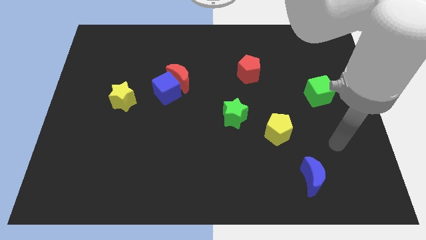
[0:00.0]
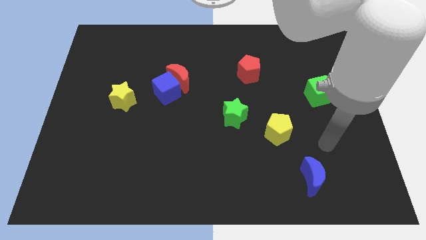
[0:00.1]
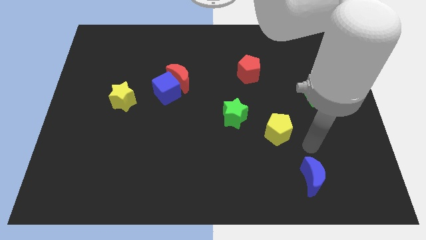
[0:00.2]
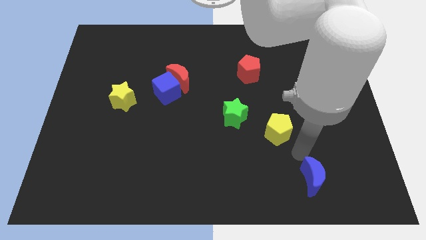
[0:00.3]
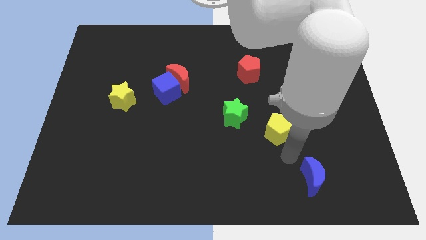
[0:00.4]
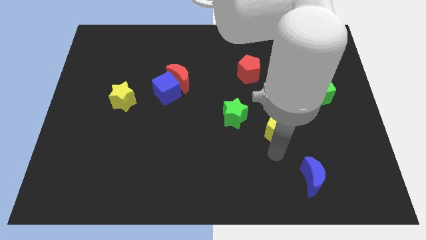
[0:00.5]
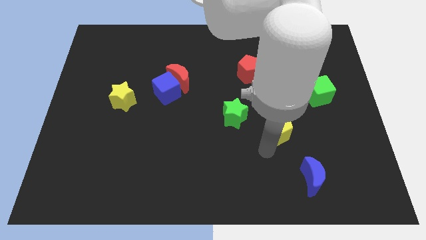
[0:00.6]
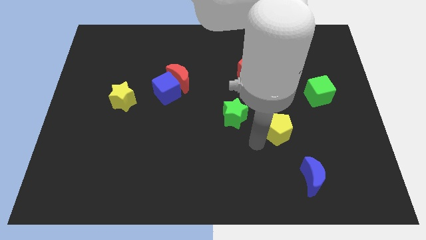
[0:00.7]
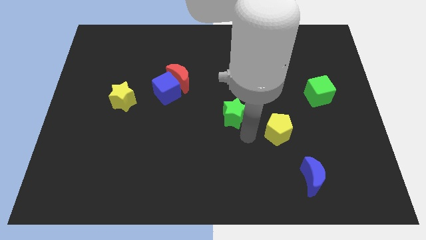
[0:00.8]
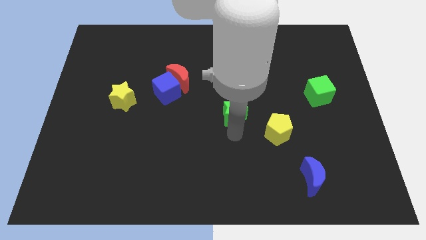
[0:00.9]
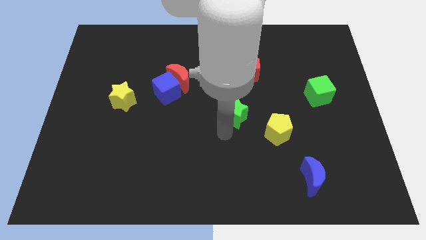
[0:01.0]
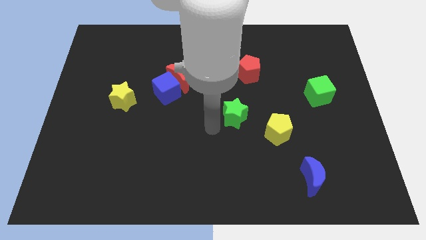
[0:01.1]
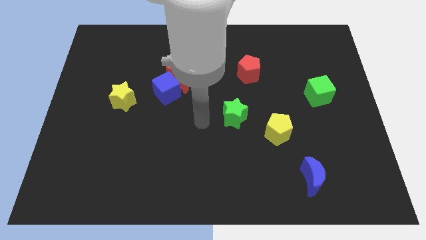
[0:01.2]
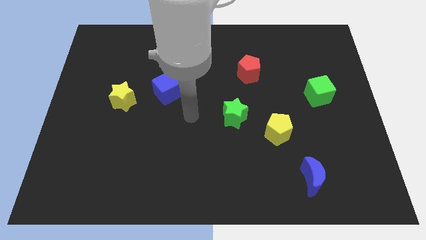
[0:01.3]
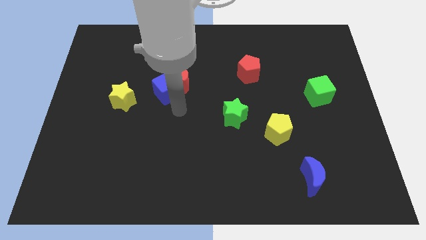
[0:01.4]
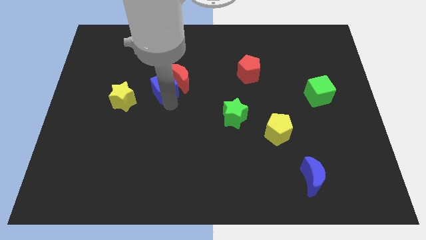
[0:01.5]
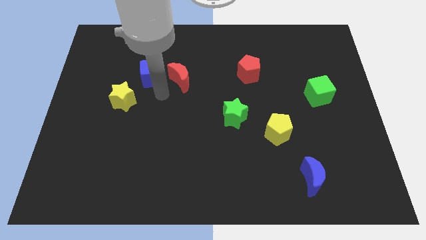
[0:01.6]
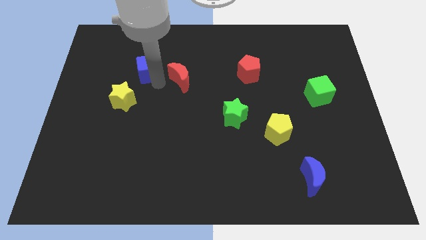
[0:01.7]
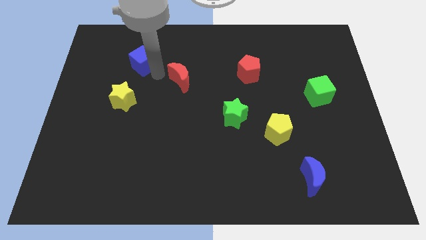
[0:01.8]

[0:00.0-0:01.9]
separate the red moon from the blue cube

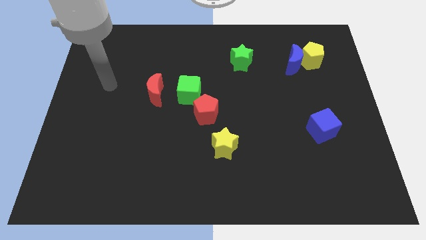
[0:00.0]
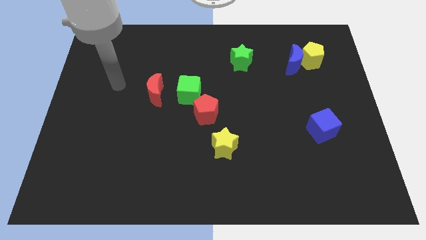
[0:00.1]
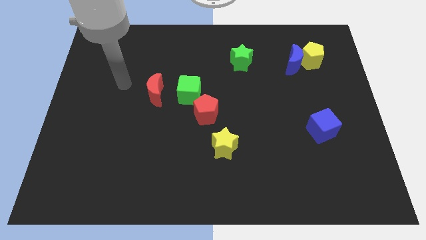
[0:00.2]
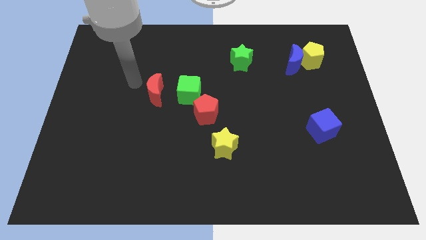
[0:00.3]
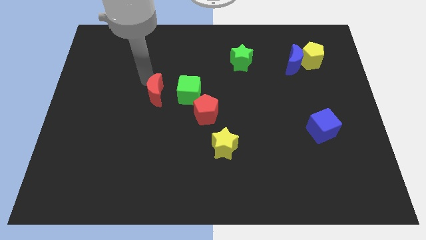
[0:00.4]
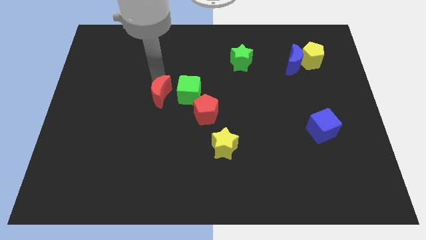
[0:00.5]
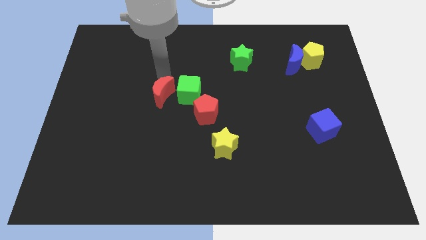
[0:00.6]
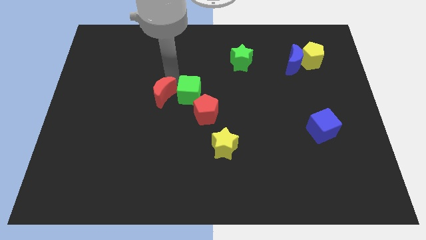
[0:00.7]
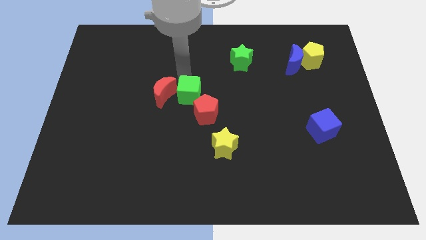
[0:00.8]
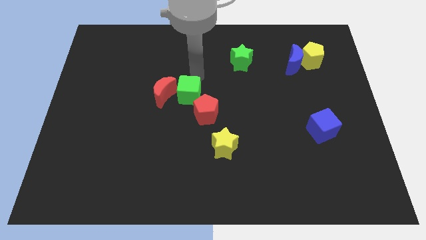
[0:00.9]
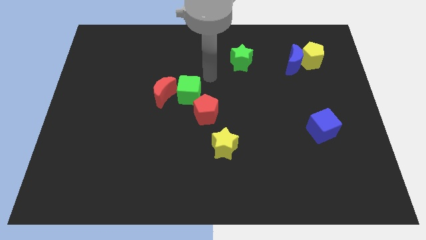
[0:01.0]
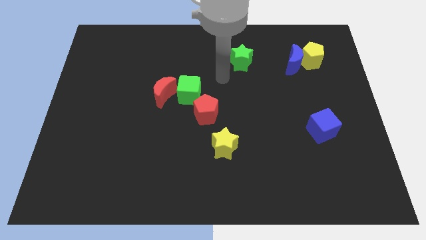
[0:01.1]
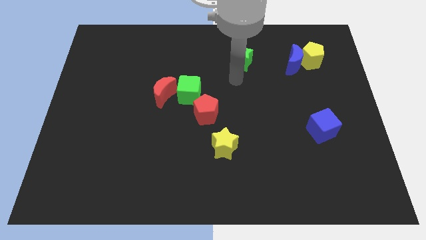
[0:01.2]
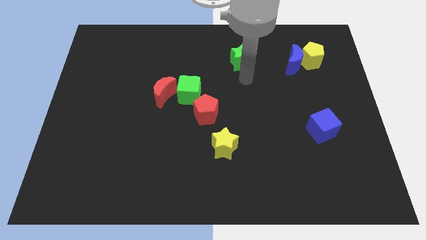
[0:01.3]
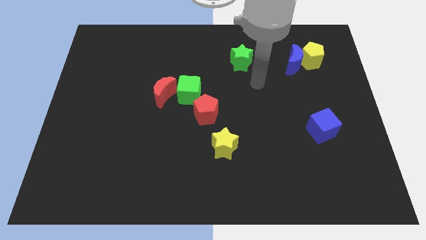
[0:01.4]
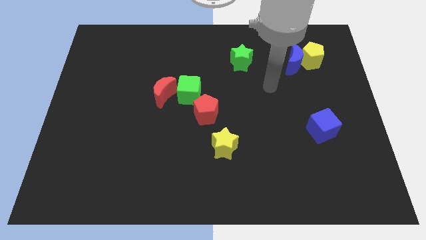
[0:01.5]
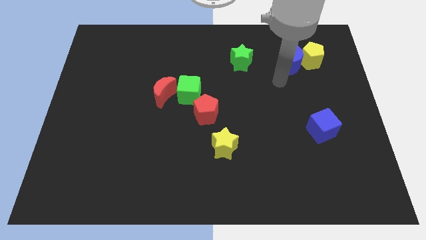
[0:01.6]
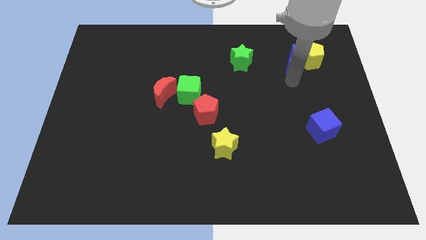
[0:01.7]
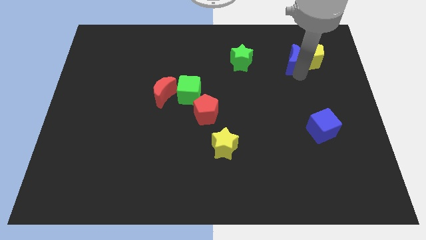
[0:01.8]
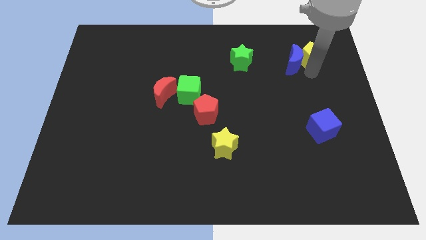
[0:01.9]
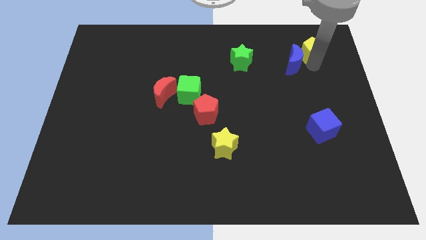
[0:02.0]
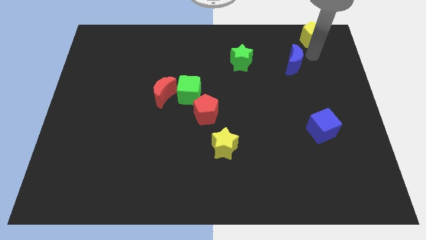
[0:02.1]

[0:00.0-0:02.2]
separate the blue moon from the yellow pentagon

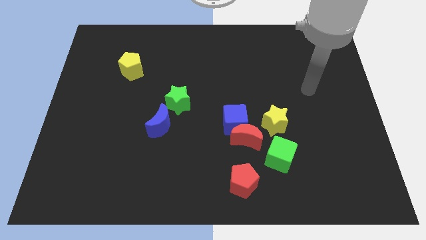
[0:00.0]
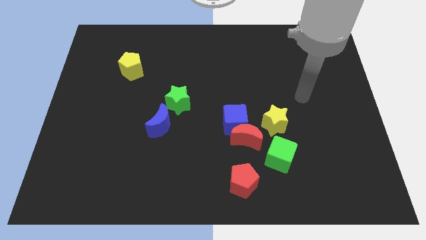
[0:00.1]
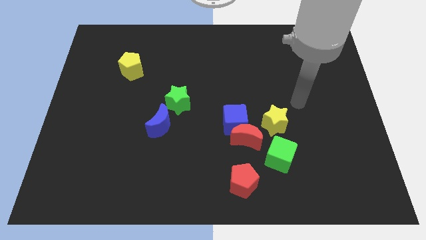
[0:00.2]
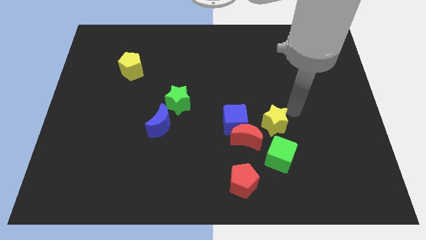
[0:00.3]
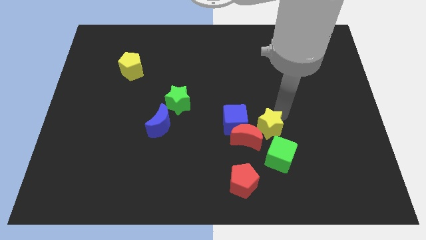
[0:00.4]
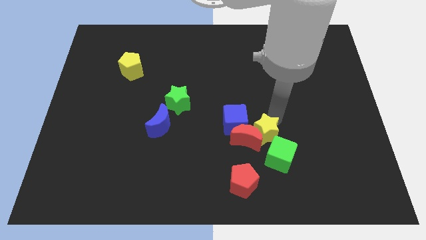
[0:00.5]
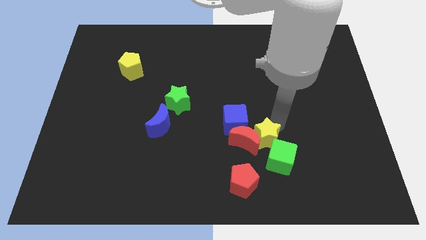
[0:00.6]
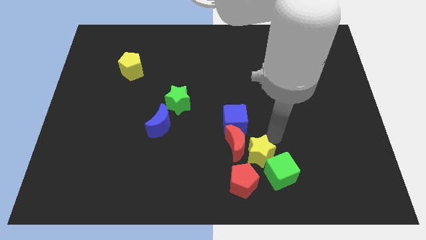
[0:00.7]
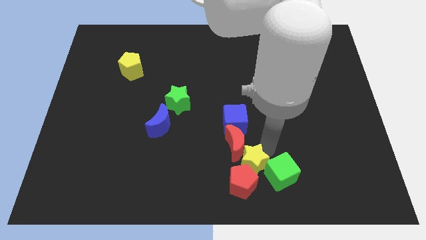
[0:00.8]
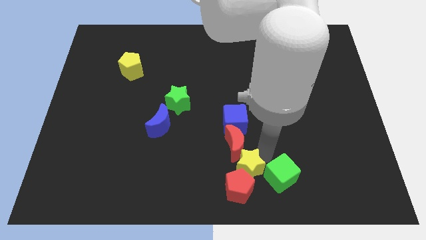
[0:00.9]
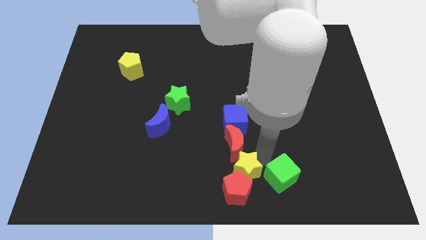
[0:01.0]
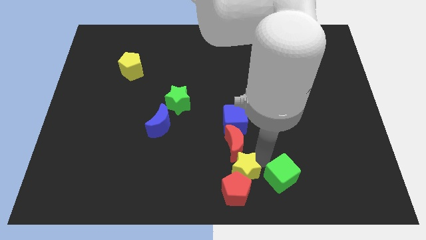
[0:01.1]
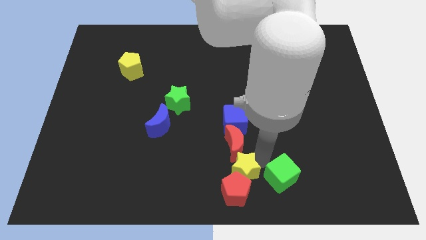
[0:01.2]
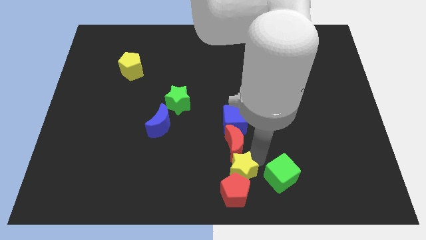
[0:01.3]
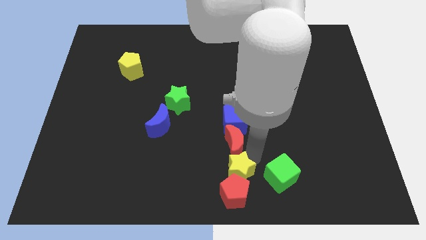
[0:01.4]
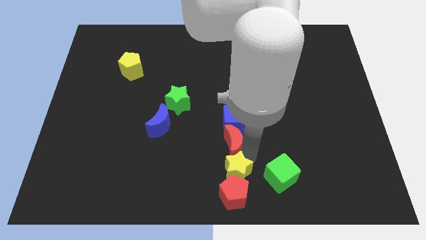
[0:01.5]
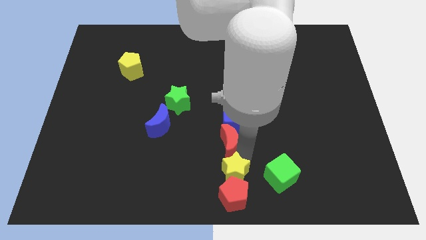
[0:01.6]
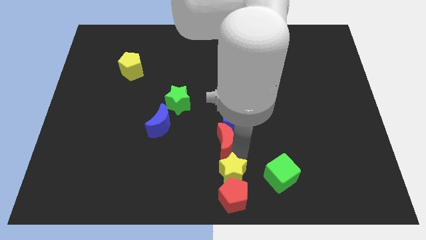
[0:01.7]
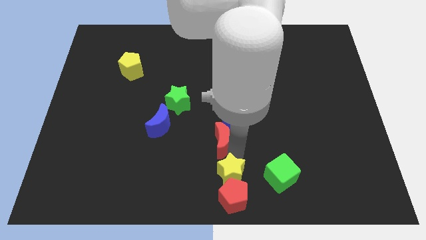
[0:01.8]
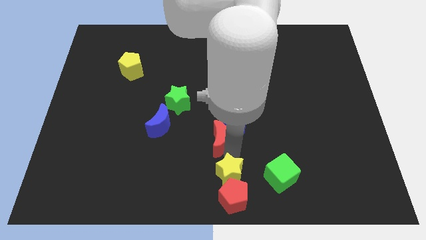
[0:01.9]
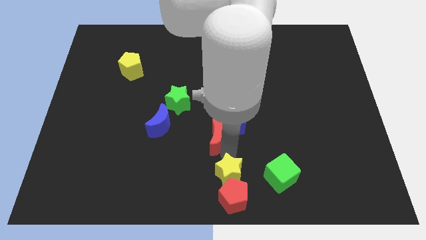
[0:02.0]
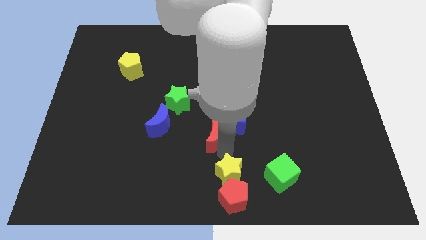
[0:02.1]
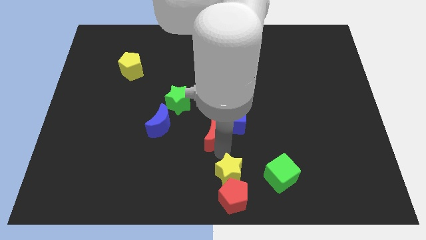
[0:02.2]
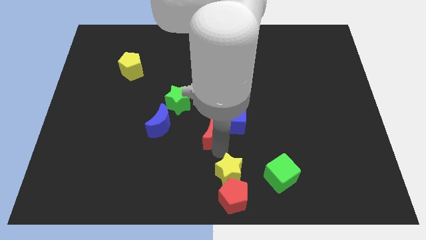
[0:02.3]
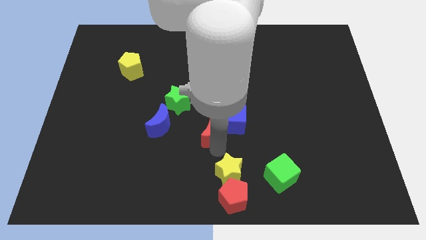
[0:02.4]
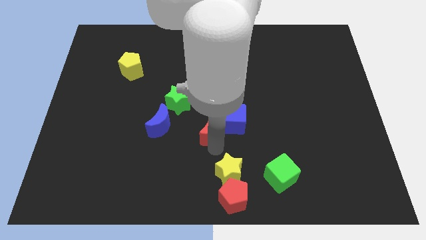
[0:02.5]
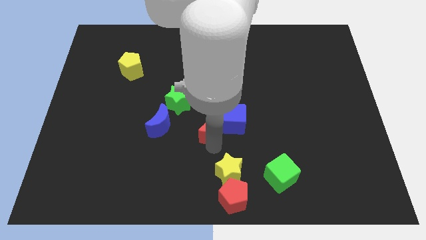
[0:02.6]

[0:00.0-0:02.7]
separate the red moon from the blue cube, yellow star, and green cube

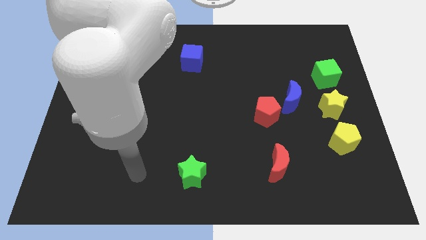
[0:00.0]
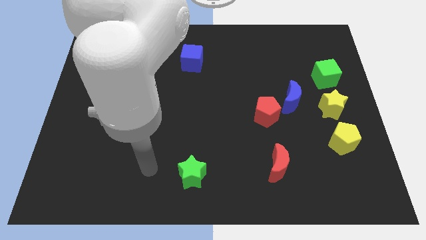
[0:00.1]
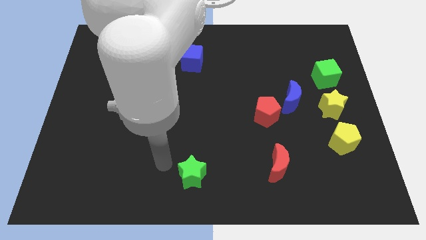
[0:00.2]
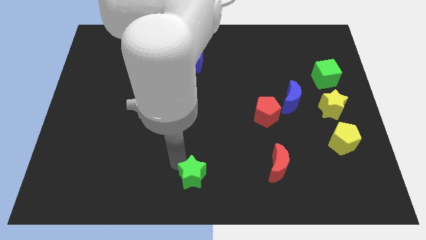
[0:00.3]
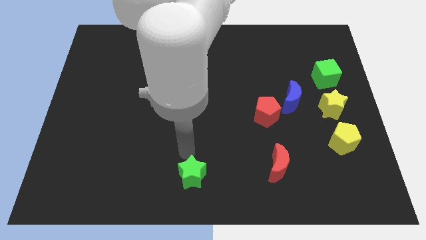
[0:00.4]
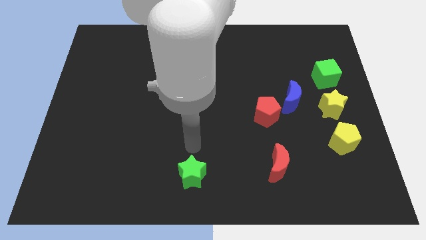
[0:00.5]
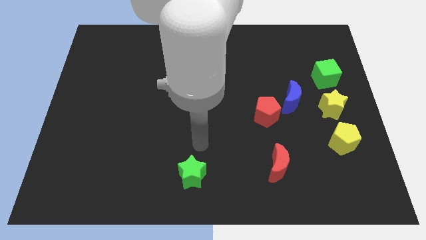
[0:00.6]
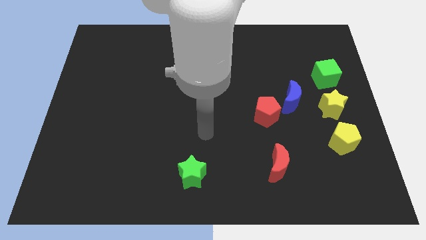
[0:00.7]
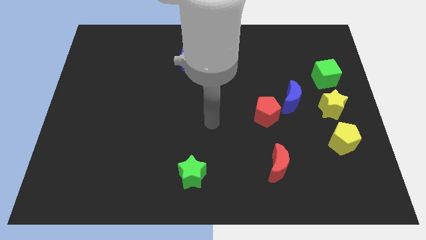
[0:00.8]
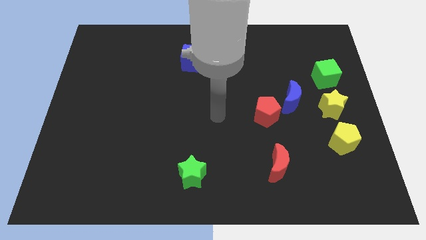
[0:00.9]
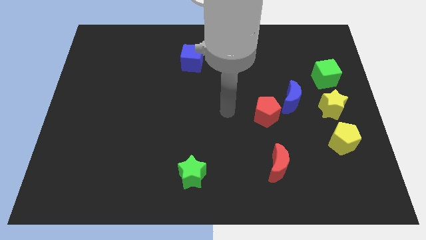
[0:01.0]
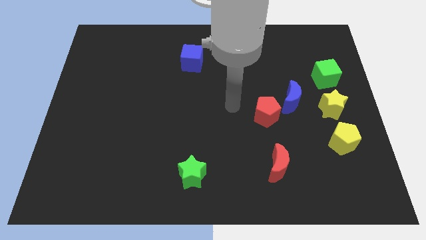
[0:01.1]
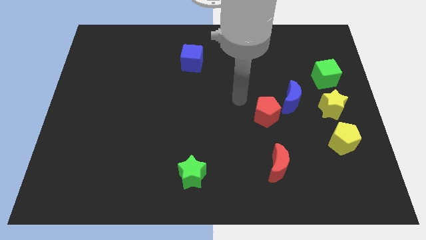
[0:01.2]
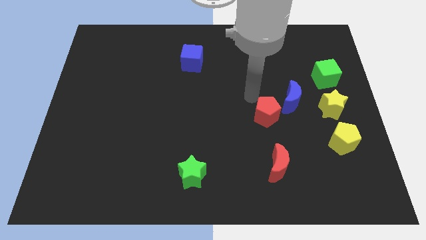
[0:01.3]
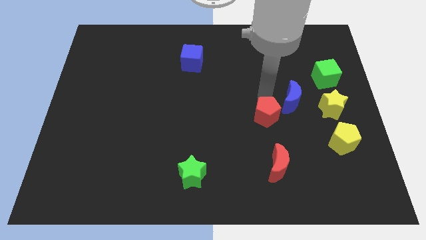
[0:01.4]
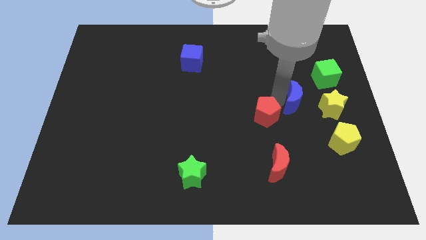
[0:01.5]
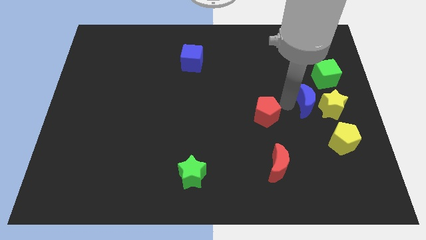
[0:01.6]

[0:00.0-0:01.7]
move the red pentagon away from the blue moon

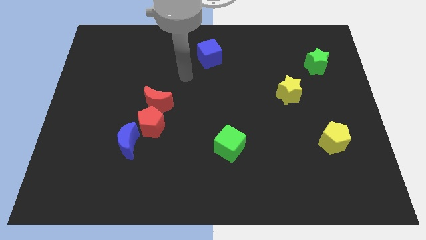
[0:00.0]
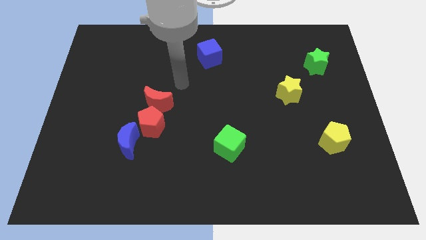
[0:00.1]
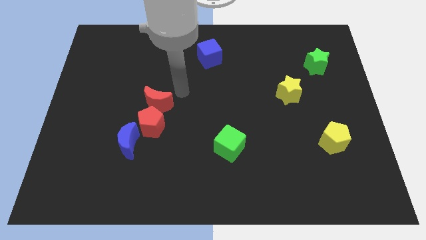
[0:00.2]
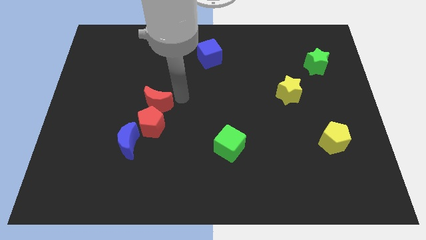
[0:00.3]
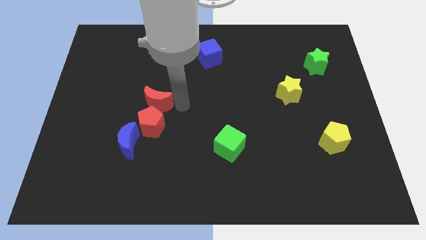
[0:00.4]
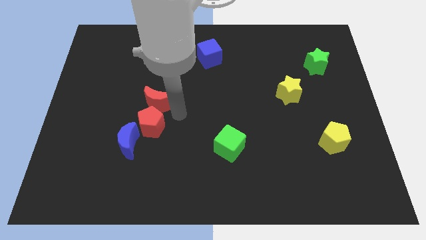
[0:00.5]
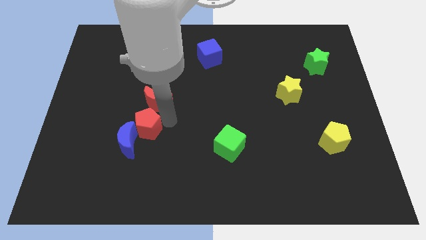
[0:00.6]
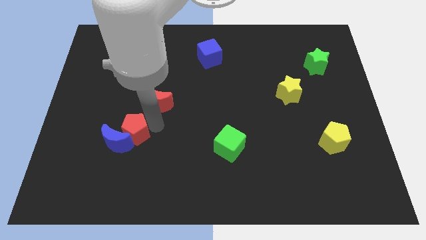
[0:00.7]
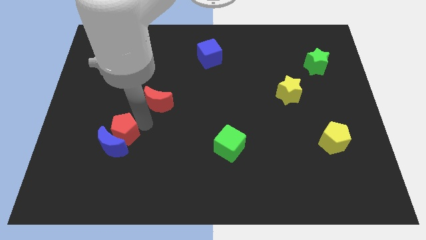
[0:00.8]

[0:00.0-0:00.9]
separate the red moon from the red pentagon
